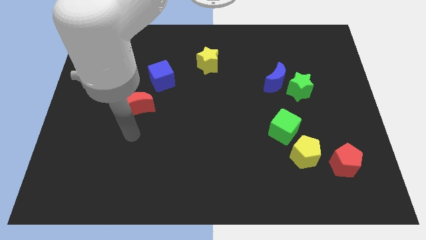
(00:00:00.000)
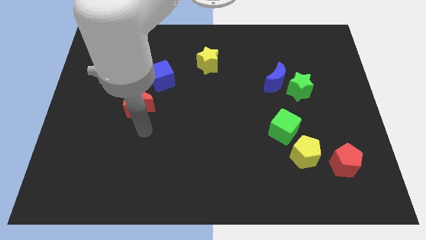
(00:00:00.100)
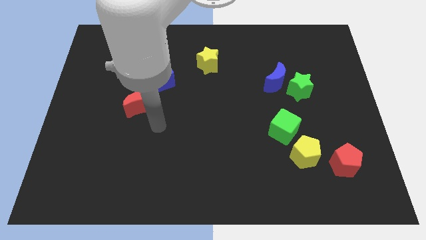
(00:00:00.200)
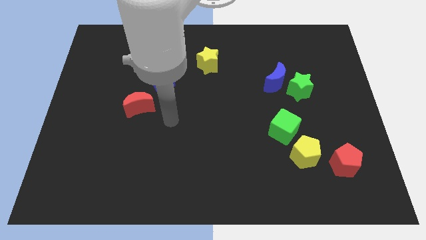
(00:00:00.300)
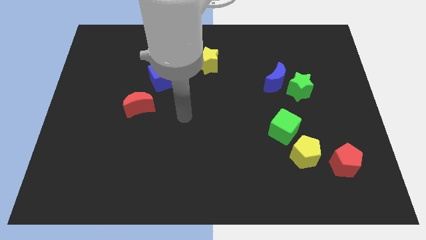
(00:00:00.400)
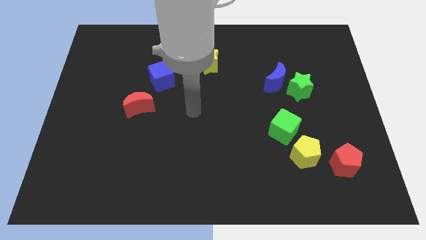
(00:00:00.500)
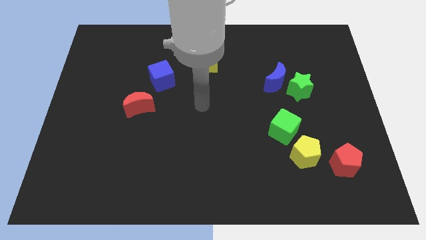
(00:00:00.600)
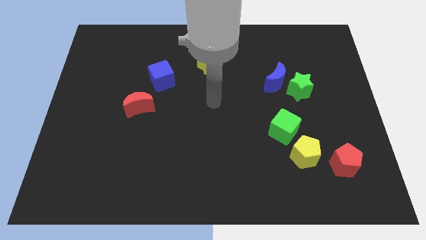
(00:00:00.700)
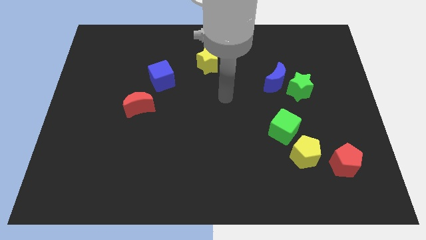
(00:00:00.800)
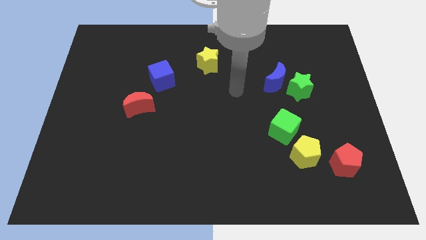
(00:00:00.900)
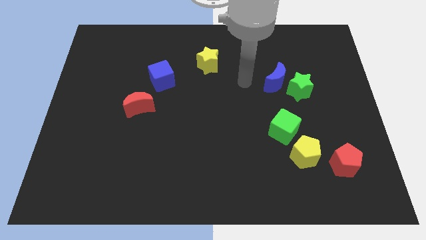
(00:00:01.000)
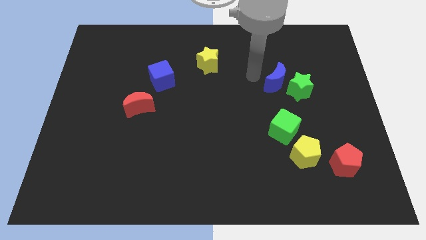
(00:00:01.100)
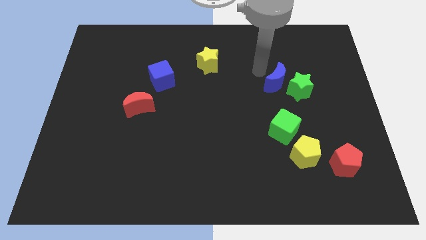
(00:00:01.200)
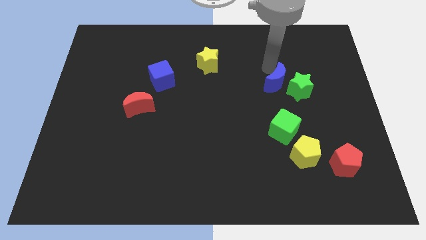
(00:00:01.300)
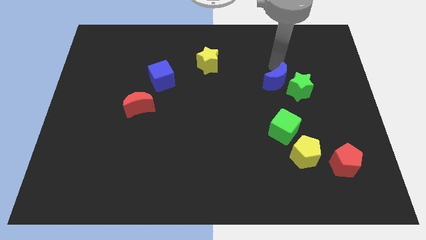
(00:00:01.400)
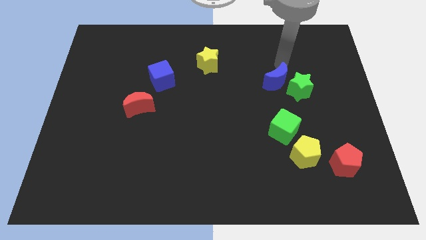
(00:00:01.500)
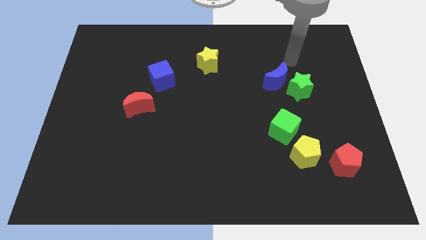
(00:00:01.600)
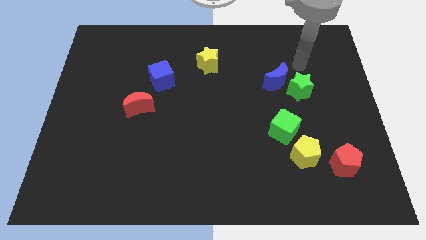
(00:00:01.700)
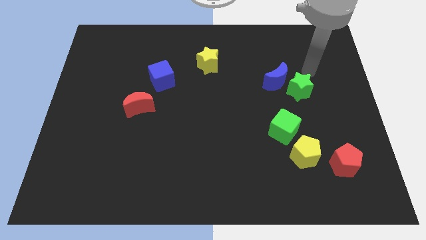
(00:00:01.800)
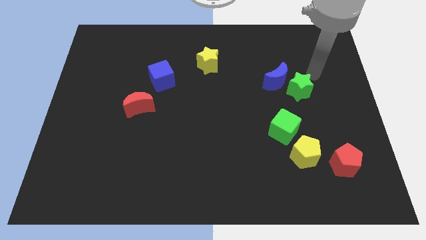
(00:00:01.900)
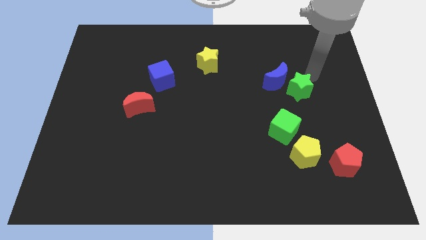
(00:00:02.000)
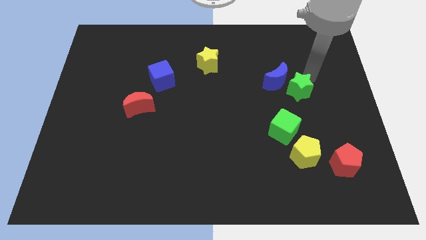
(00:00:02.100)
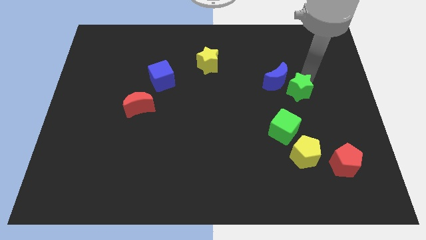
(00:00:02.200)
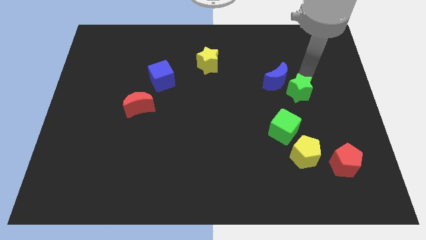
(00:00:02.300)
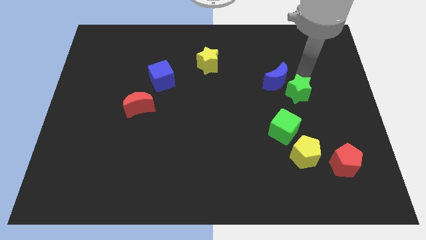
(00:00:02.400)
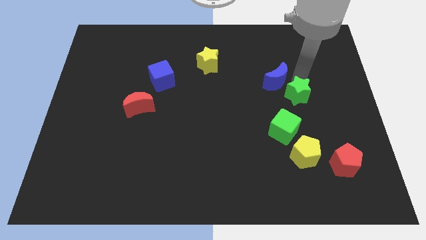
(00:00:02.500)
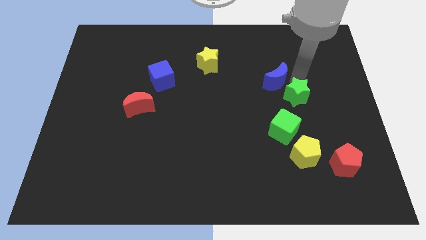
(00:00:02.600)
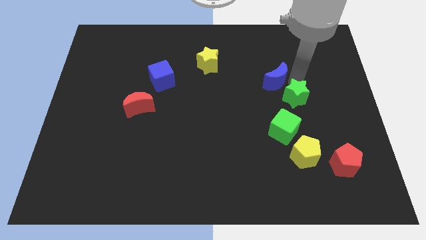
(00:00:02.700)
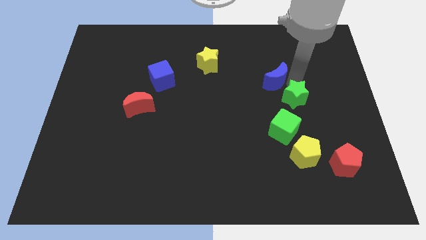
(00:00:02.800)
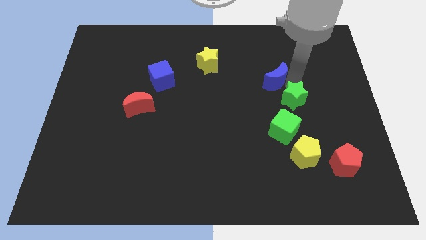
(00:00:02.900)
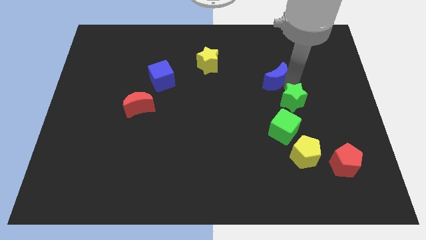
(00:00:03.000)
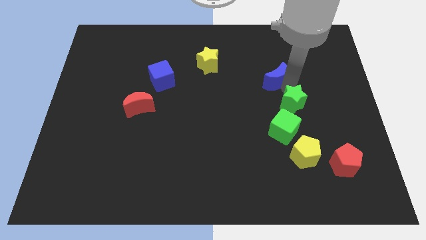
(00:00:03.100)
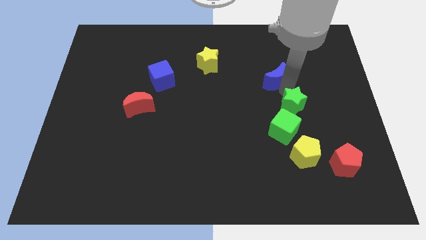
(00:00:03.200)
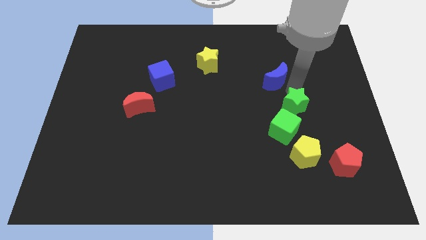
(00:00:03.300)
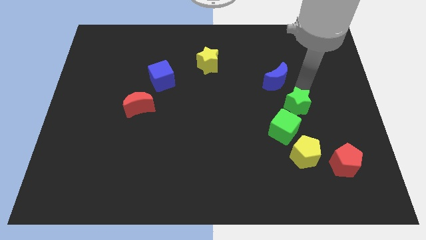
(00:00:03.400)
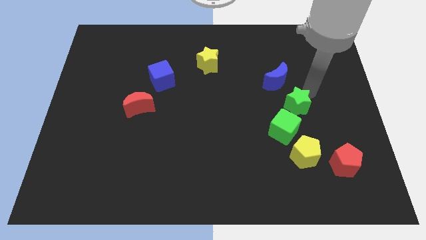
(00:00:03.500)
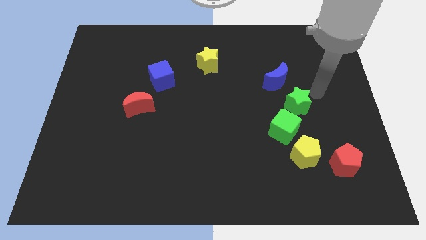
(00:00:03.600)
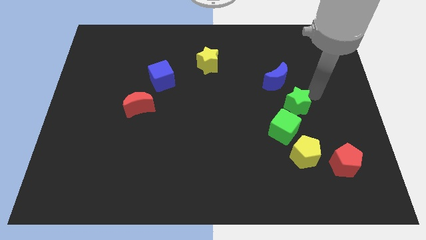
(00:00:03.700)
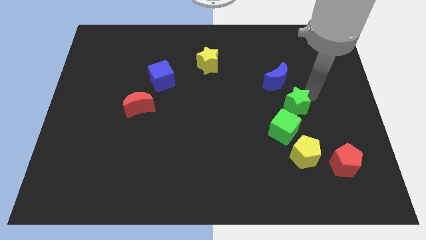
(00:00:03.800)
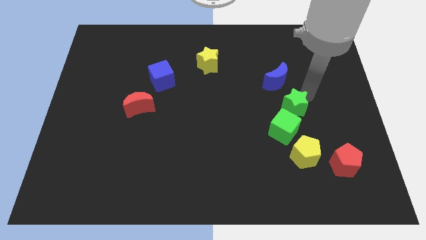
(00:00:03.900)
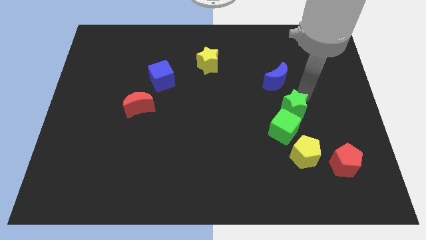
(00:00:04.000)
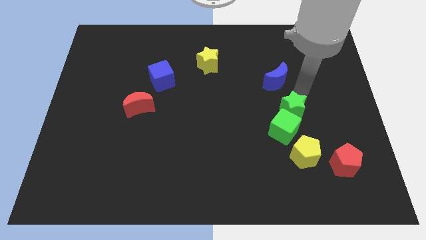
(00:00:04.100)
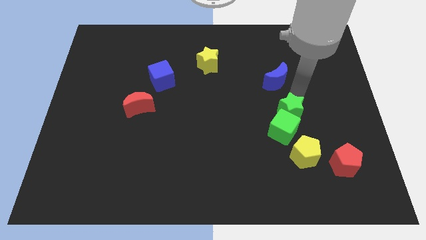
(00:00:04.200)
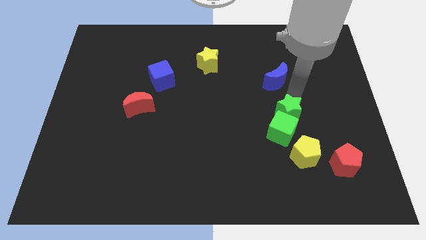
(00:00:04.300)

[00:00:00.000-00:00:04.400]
slightly move the green star down and to the left

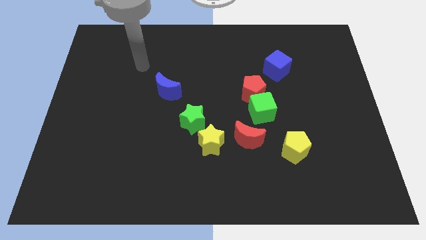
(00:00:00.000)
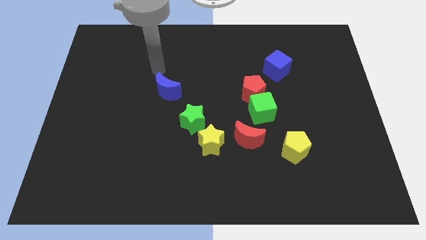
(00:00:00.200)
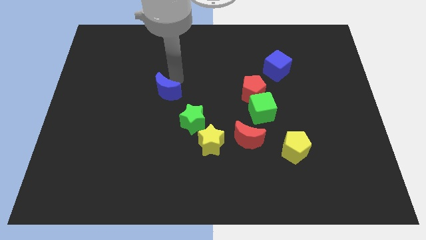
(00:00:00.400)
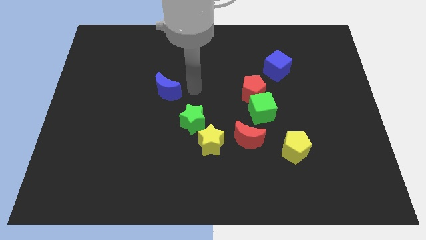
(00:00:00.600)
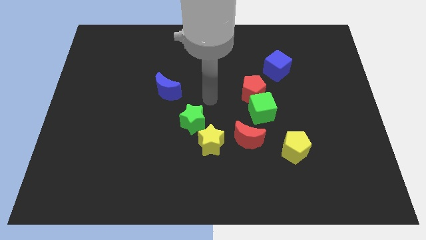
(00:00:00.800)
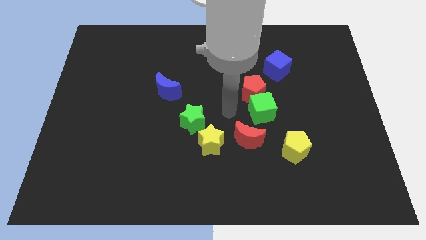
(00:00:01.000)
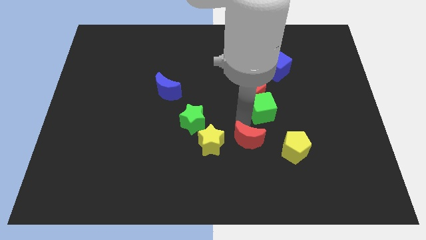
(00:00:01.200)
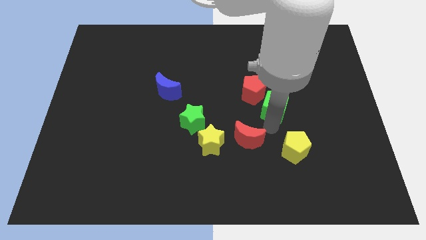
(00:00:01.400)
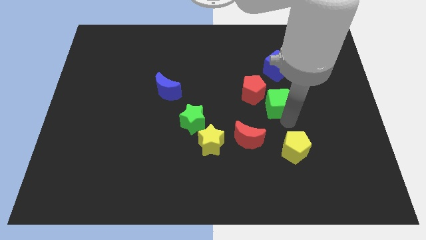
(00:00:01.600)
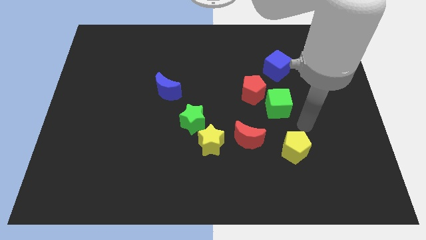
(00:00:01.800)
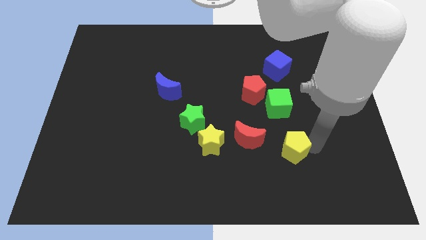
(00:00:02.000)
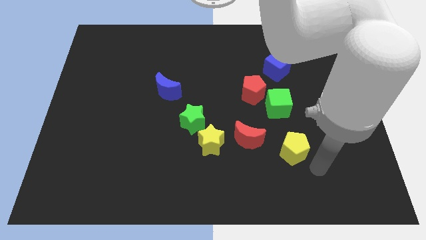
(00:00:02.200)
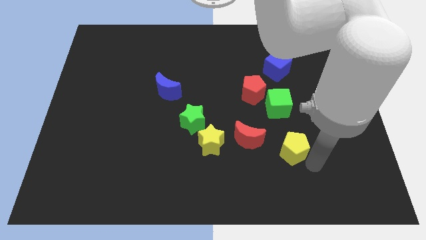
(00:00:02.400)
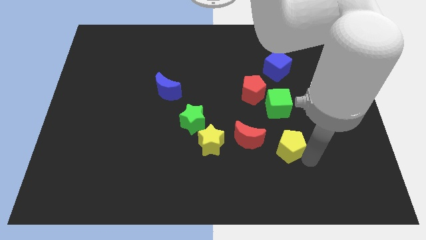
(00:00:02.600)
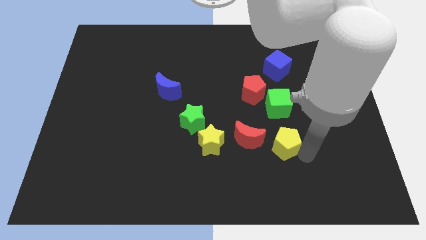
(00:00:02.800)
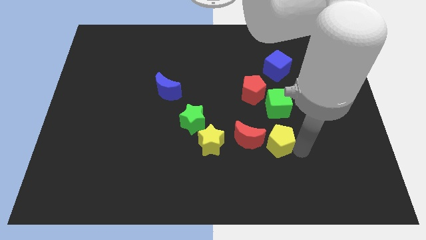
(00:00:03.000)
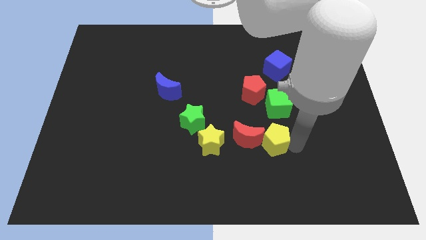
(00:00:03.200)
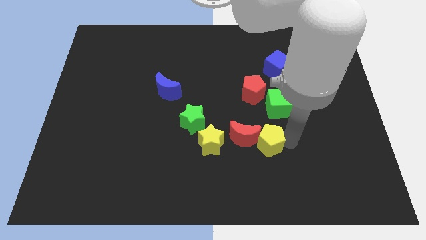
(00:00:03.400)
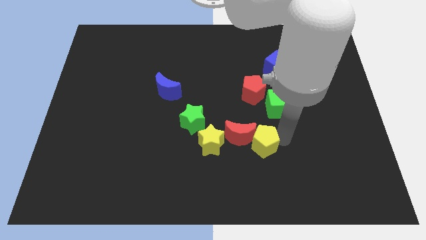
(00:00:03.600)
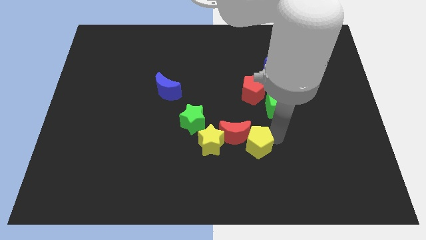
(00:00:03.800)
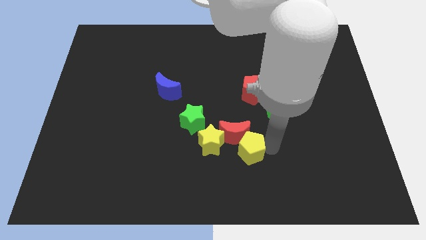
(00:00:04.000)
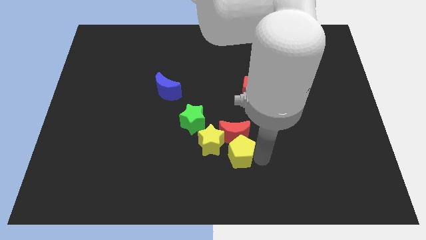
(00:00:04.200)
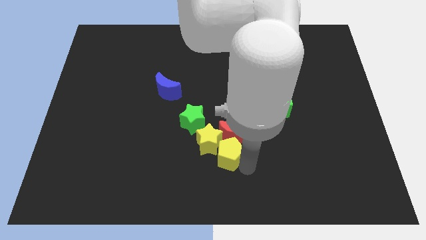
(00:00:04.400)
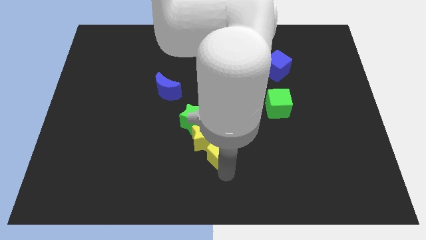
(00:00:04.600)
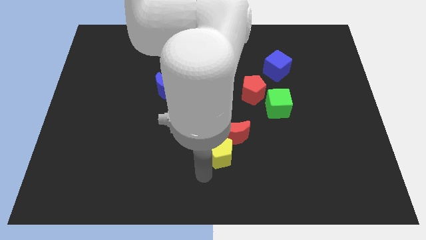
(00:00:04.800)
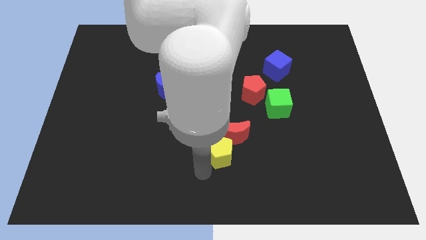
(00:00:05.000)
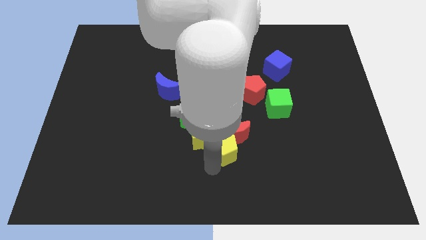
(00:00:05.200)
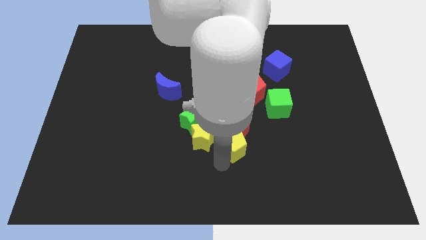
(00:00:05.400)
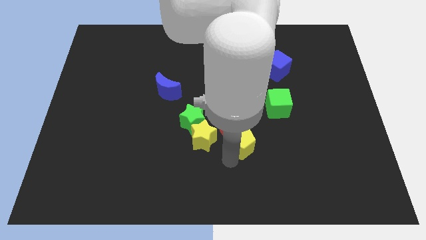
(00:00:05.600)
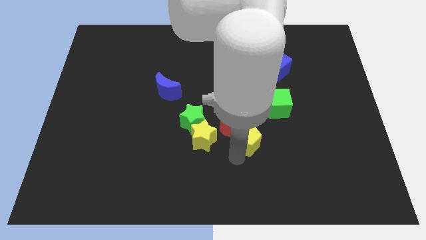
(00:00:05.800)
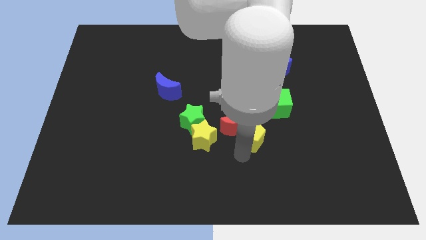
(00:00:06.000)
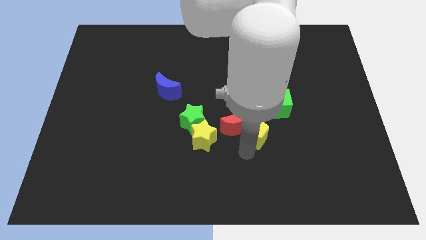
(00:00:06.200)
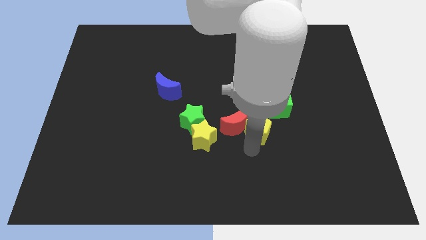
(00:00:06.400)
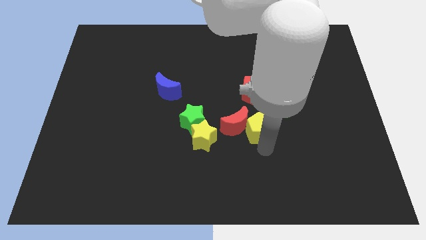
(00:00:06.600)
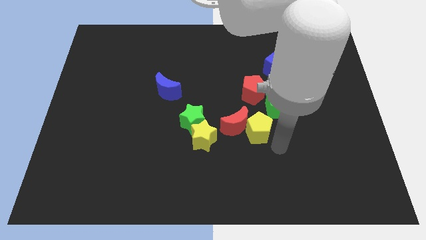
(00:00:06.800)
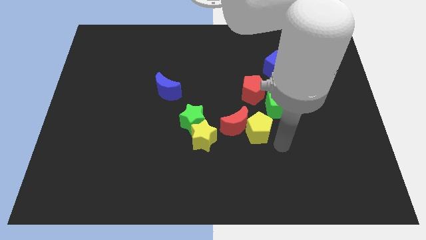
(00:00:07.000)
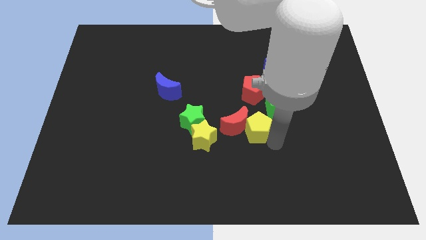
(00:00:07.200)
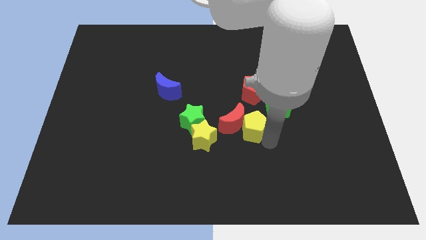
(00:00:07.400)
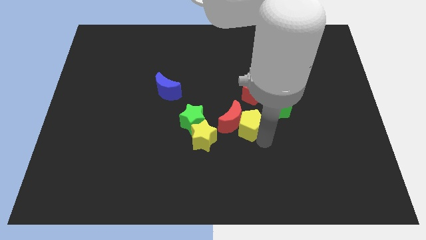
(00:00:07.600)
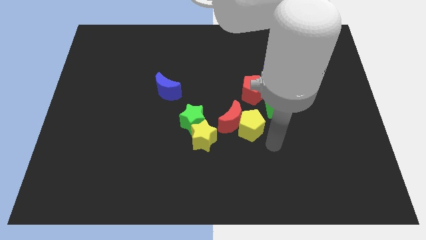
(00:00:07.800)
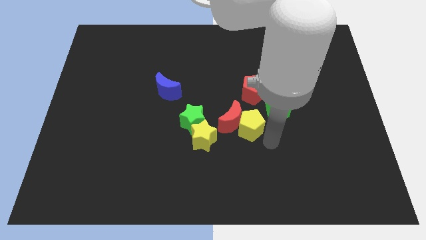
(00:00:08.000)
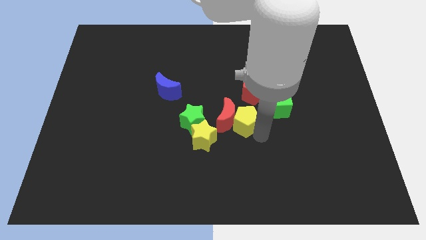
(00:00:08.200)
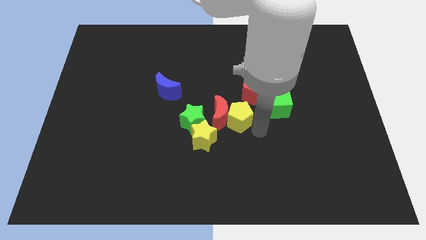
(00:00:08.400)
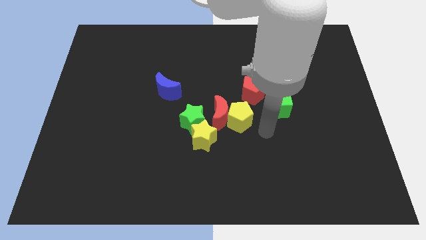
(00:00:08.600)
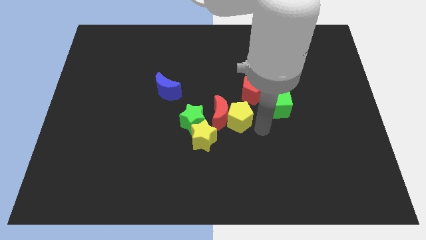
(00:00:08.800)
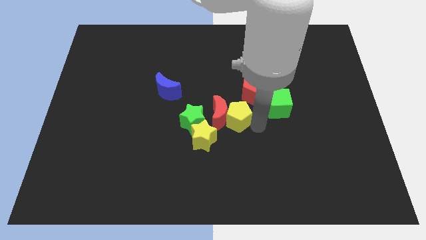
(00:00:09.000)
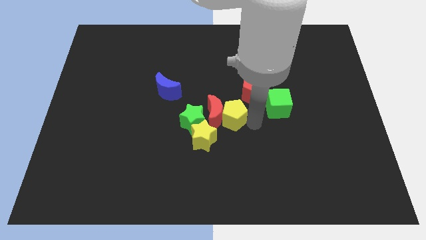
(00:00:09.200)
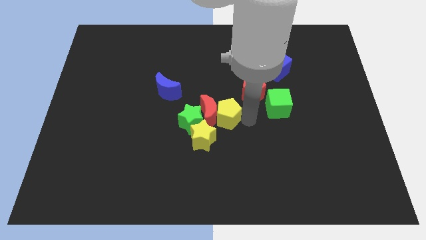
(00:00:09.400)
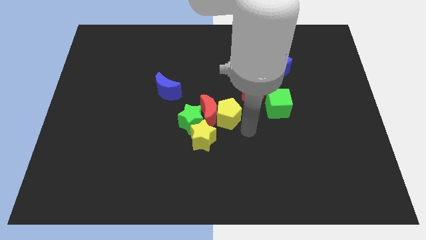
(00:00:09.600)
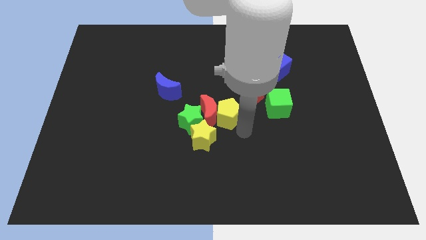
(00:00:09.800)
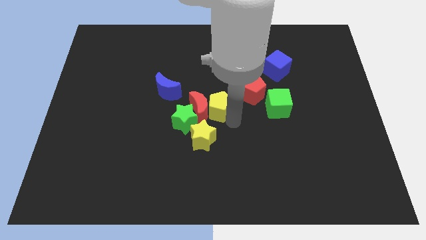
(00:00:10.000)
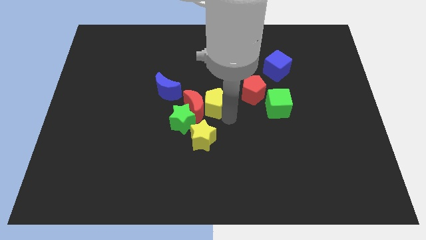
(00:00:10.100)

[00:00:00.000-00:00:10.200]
slide the yellow pentagon diagonally up and left
